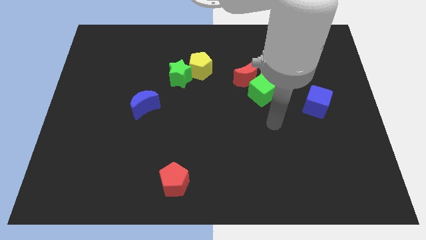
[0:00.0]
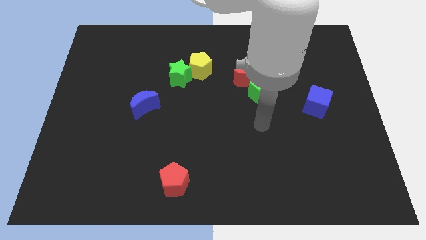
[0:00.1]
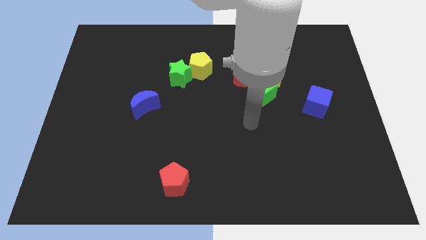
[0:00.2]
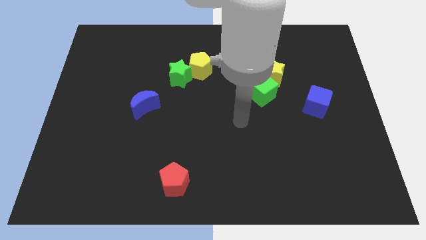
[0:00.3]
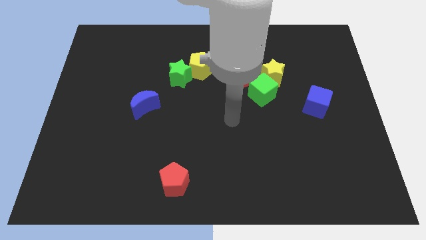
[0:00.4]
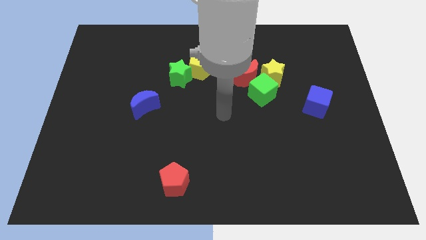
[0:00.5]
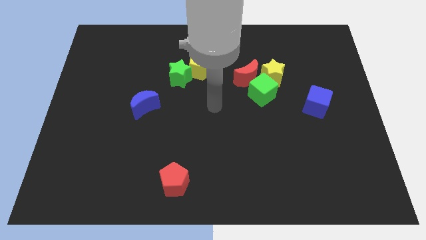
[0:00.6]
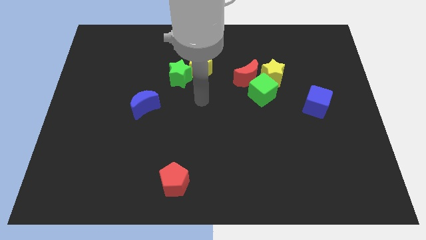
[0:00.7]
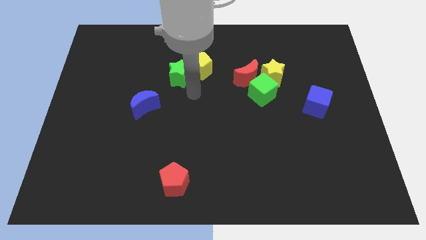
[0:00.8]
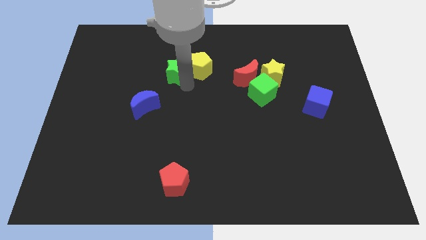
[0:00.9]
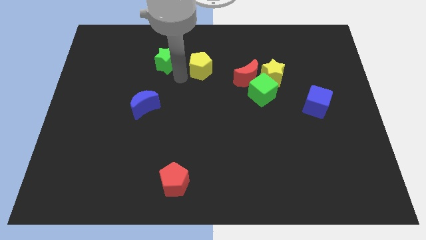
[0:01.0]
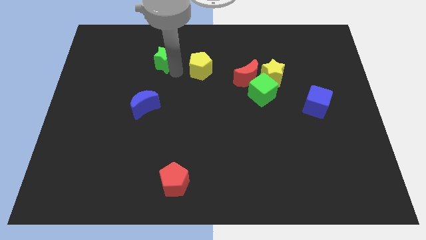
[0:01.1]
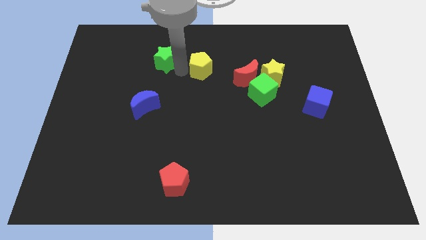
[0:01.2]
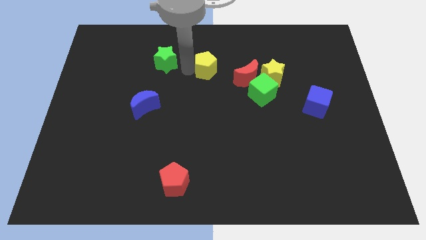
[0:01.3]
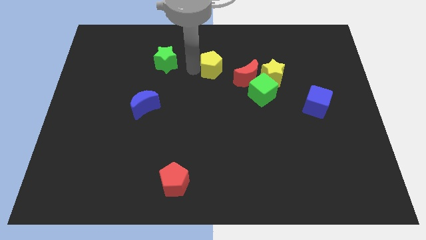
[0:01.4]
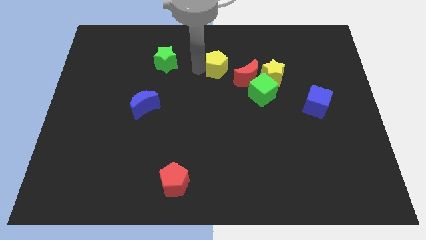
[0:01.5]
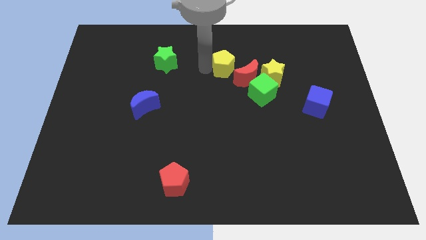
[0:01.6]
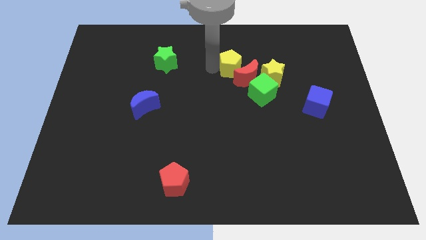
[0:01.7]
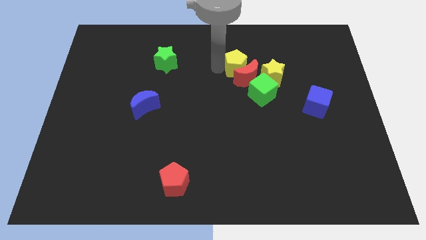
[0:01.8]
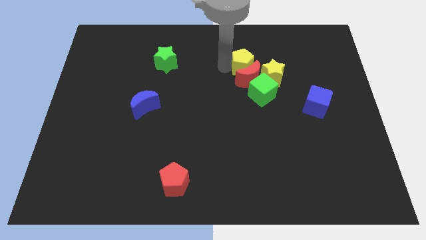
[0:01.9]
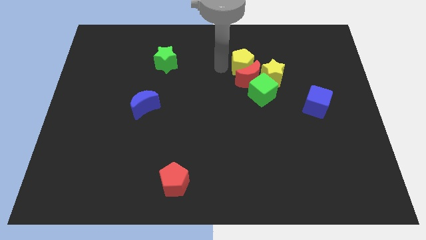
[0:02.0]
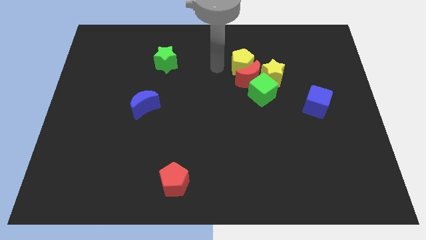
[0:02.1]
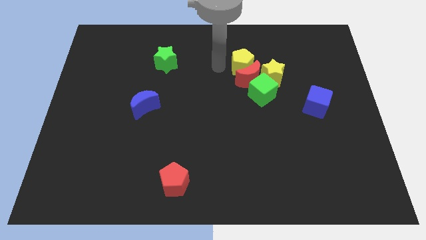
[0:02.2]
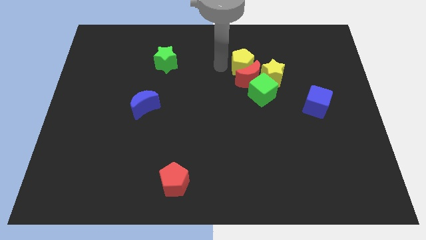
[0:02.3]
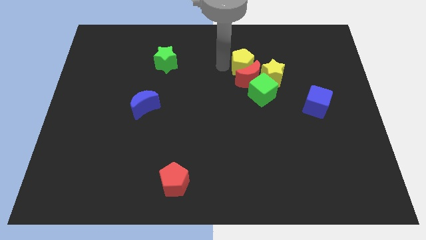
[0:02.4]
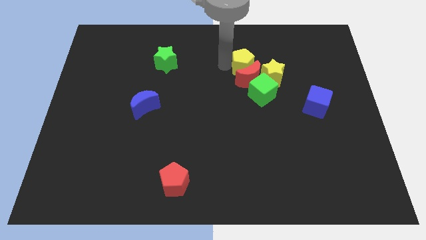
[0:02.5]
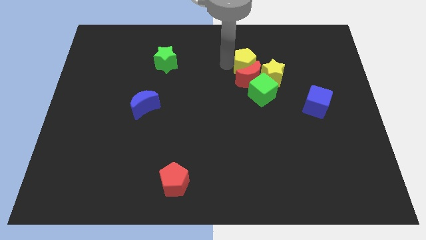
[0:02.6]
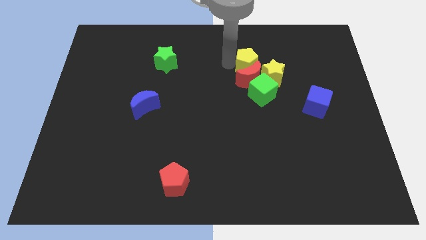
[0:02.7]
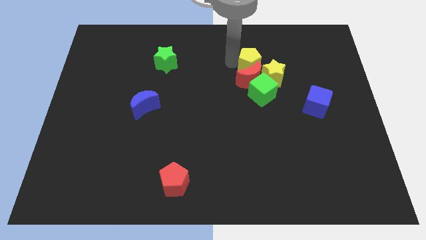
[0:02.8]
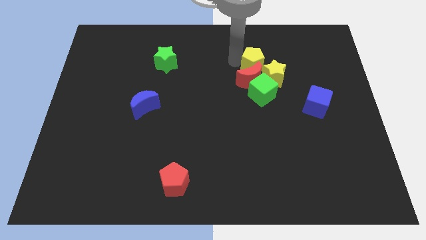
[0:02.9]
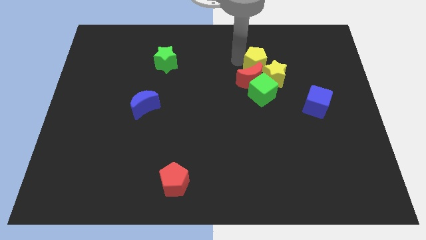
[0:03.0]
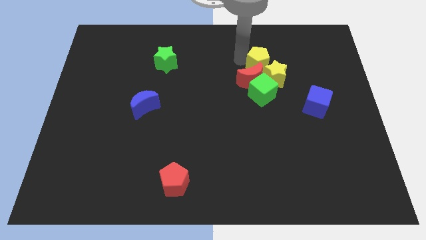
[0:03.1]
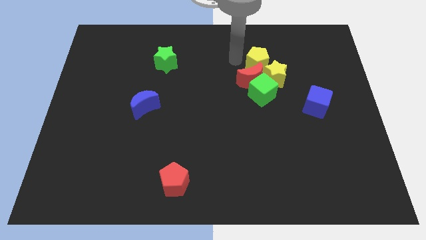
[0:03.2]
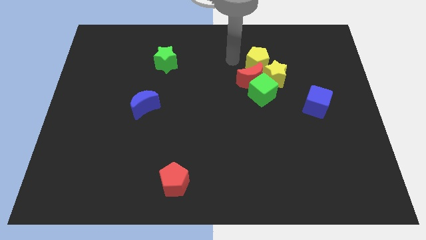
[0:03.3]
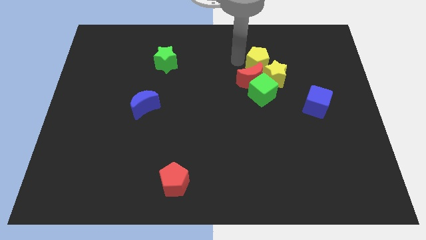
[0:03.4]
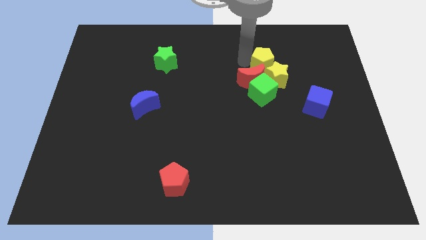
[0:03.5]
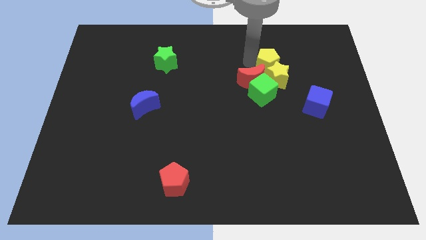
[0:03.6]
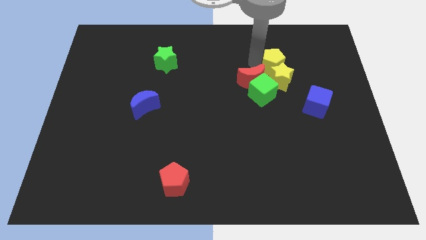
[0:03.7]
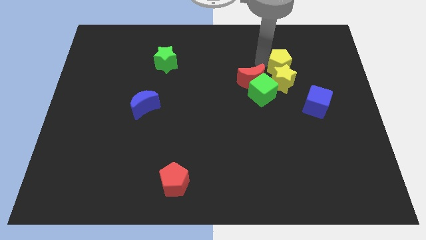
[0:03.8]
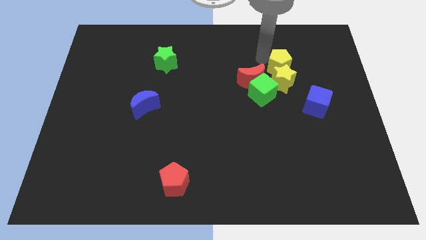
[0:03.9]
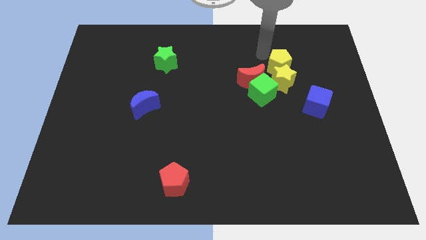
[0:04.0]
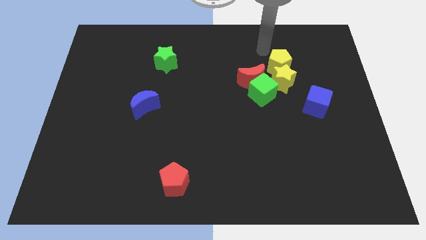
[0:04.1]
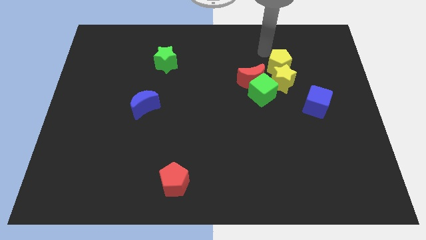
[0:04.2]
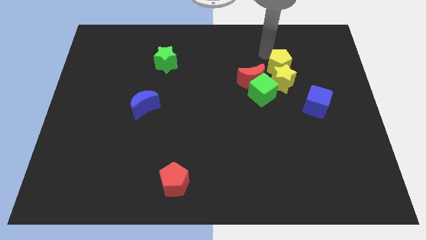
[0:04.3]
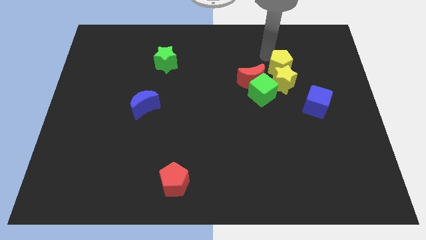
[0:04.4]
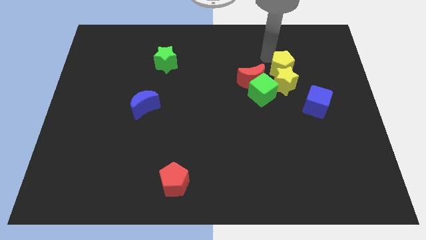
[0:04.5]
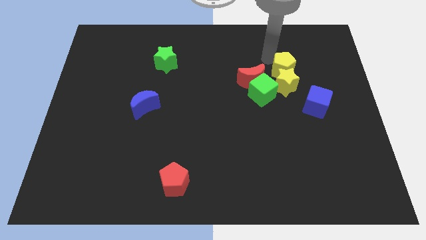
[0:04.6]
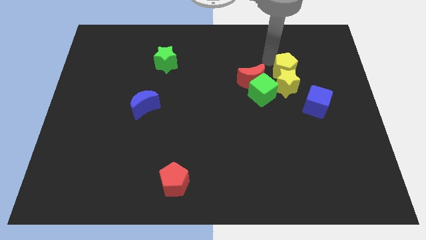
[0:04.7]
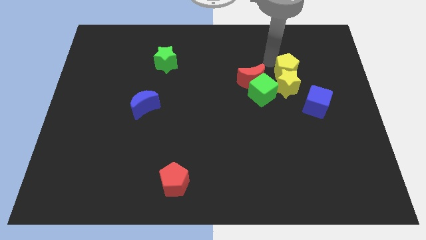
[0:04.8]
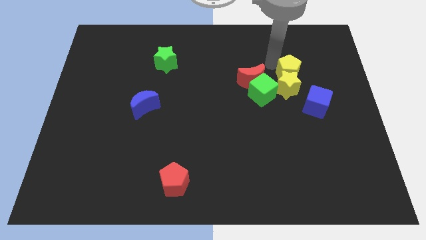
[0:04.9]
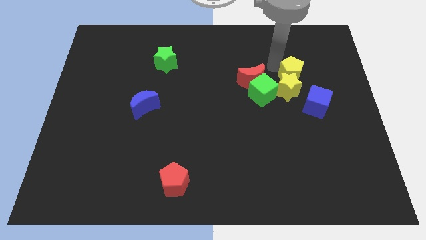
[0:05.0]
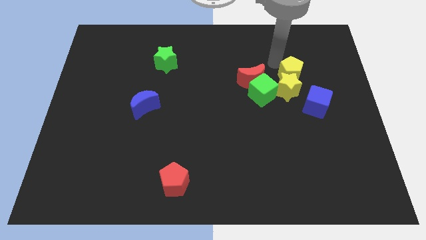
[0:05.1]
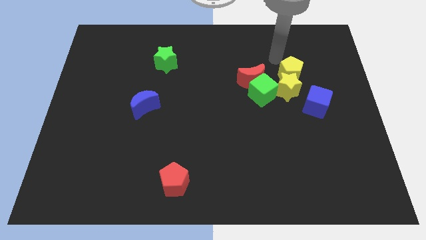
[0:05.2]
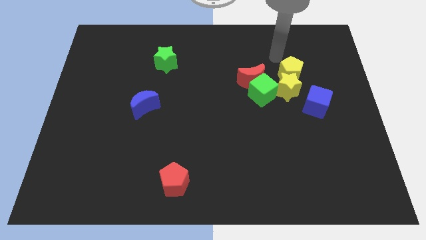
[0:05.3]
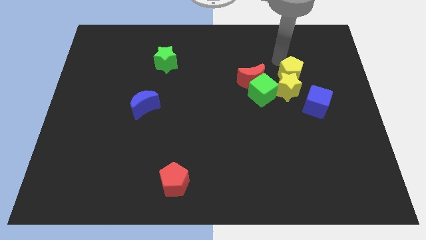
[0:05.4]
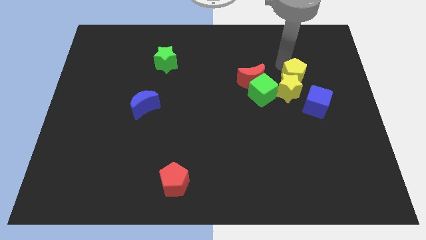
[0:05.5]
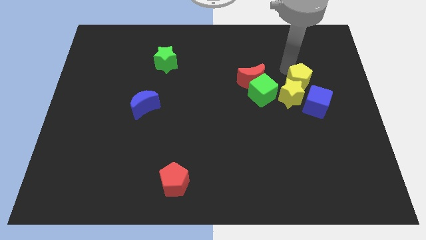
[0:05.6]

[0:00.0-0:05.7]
push the yellow pentagon to the right side of the green cube
